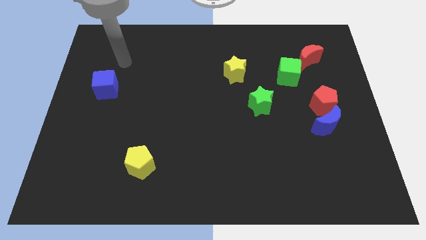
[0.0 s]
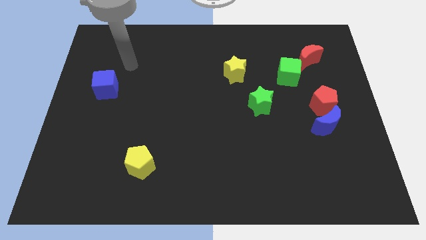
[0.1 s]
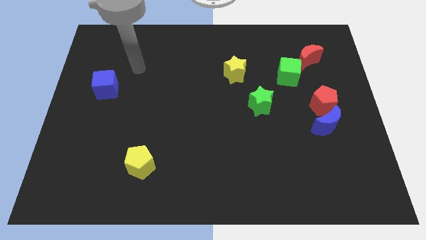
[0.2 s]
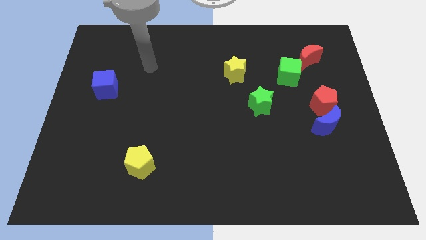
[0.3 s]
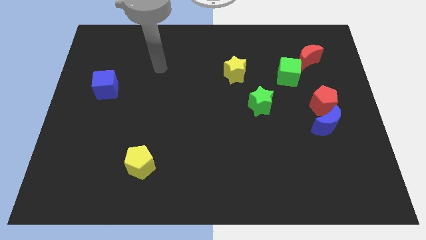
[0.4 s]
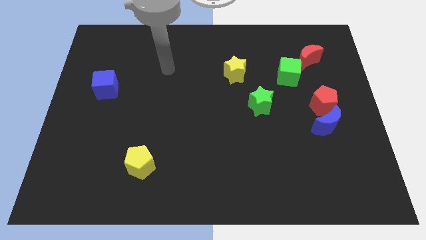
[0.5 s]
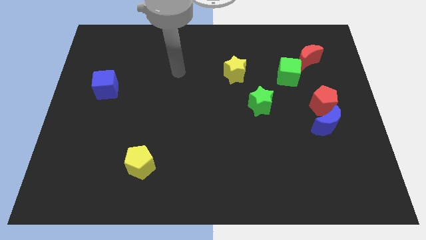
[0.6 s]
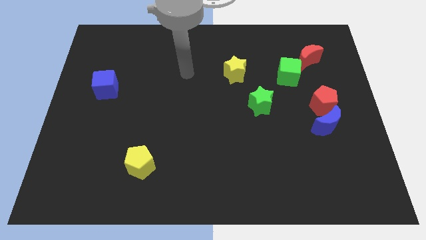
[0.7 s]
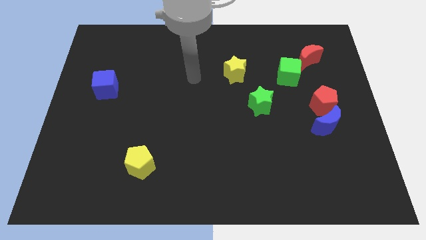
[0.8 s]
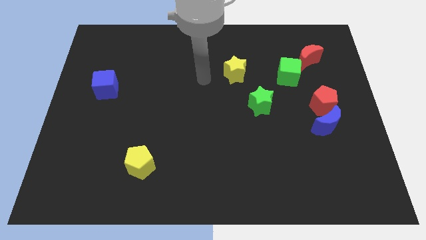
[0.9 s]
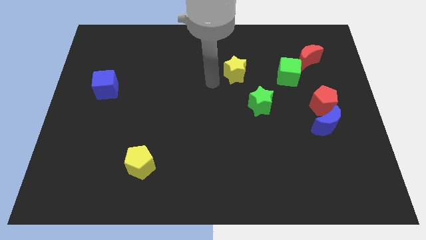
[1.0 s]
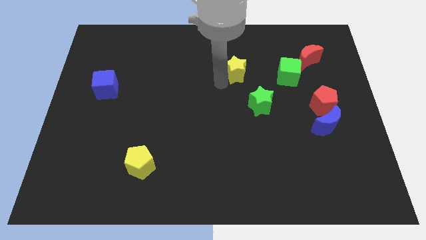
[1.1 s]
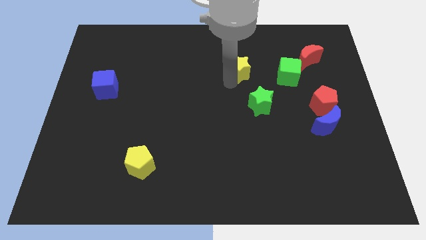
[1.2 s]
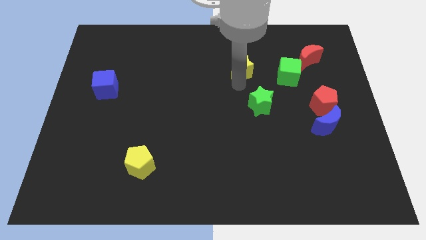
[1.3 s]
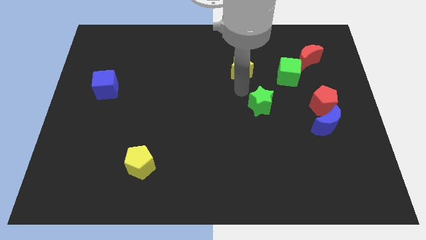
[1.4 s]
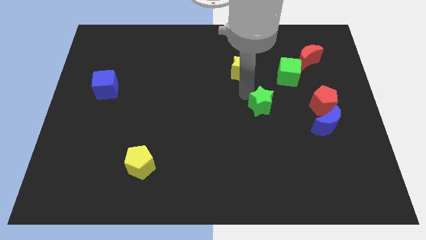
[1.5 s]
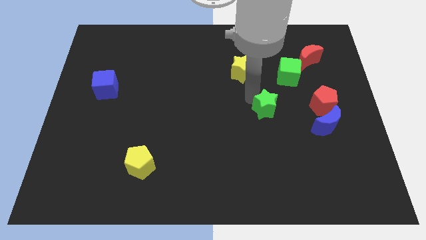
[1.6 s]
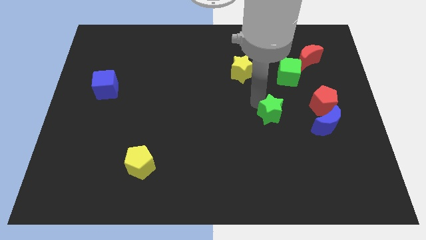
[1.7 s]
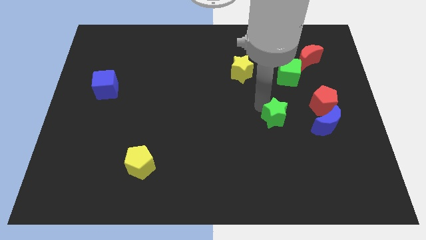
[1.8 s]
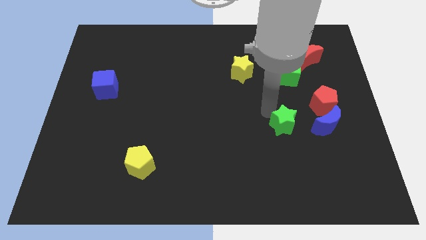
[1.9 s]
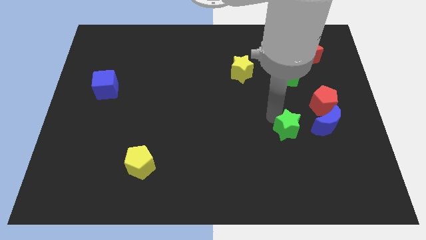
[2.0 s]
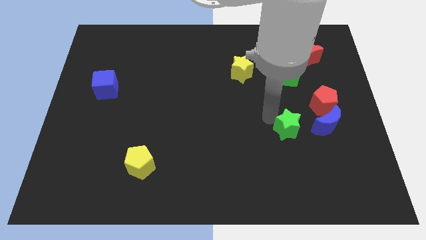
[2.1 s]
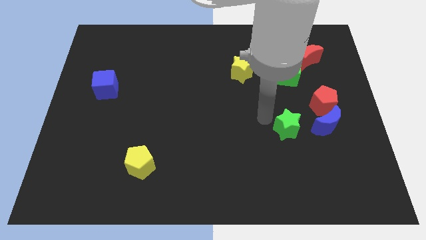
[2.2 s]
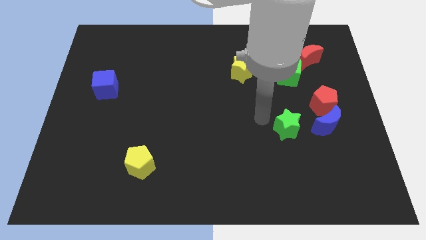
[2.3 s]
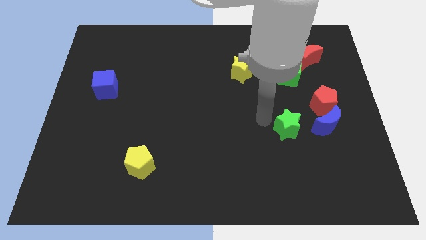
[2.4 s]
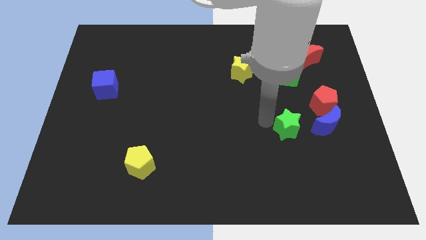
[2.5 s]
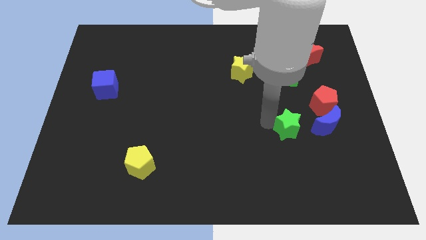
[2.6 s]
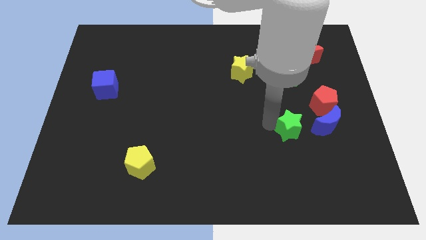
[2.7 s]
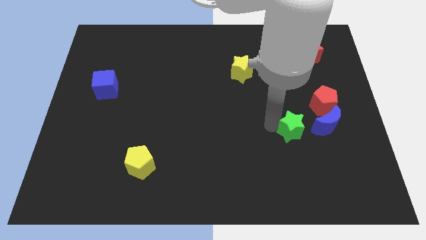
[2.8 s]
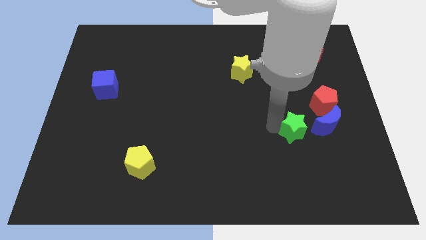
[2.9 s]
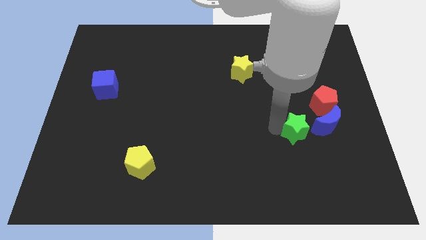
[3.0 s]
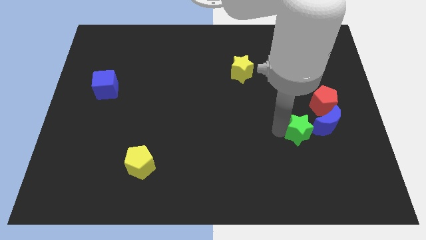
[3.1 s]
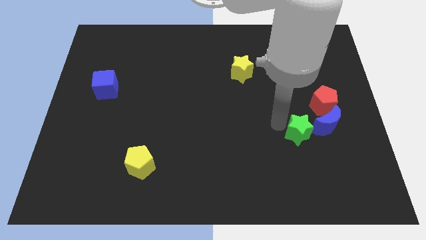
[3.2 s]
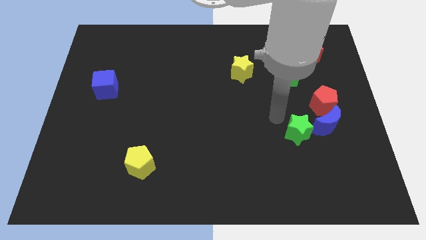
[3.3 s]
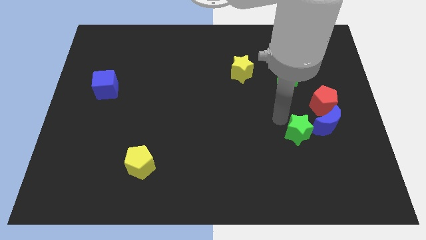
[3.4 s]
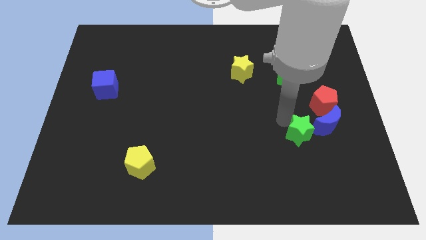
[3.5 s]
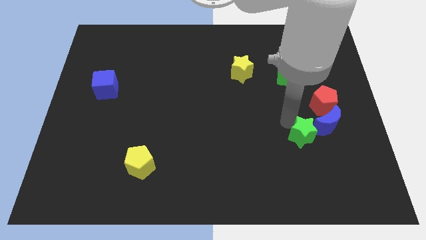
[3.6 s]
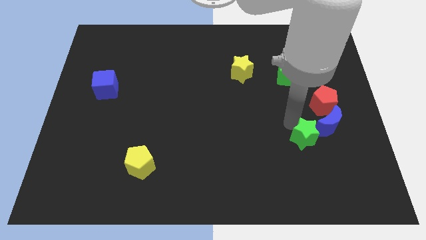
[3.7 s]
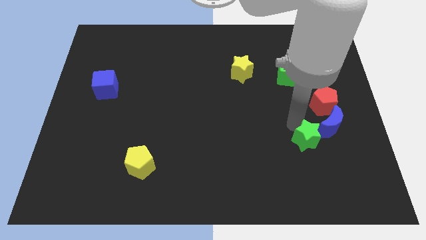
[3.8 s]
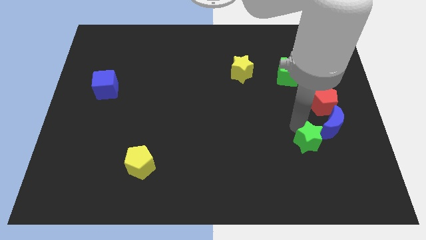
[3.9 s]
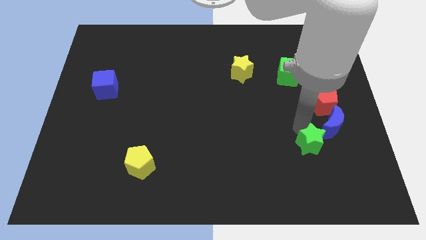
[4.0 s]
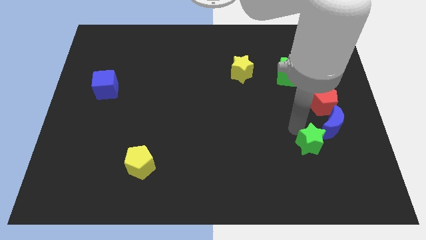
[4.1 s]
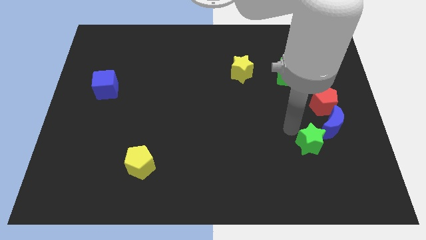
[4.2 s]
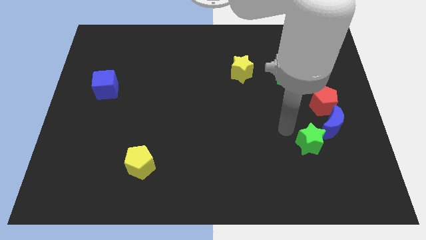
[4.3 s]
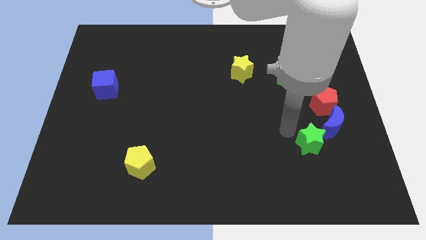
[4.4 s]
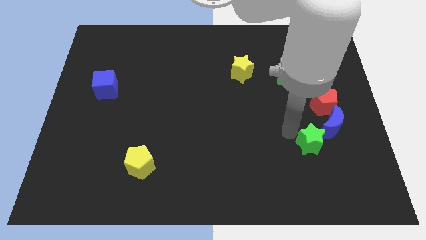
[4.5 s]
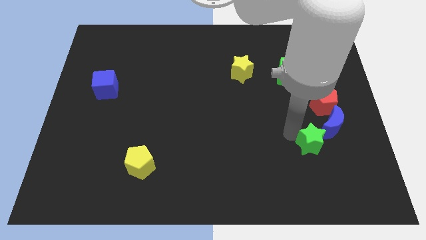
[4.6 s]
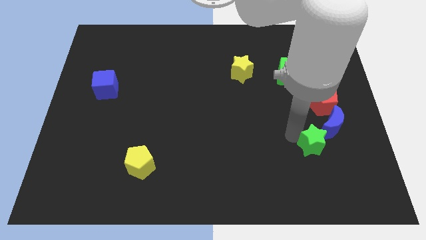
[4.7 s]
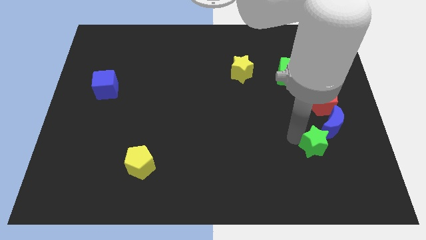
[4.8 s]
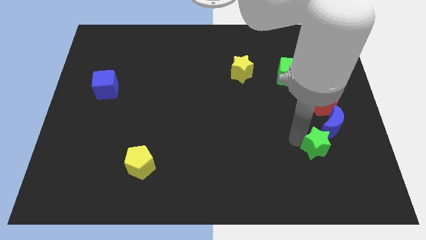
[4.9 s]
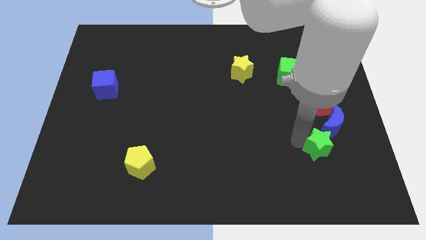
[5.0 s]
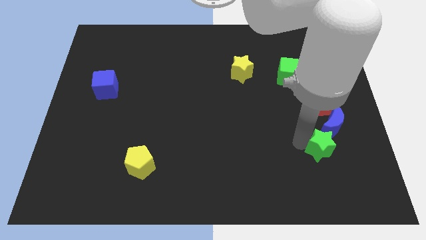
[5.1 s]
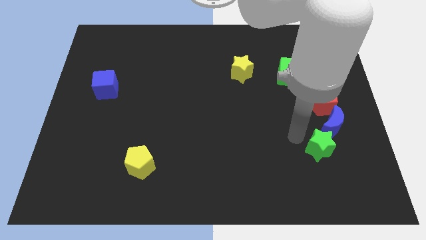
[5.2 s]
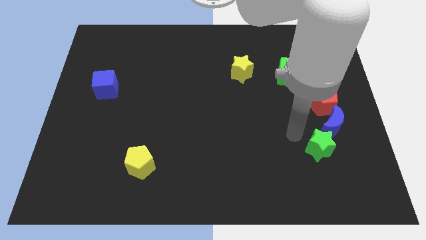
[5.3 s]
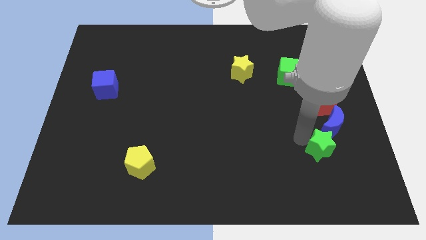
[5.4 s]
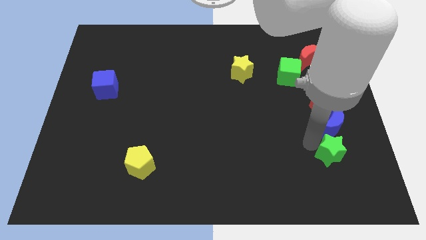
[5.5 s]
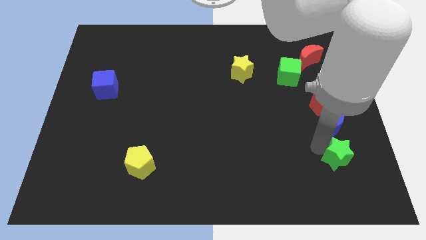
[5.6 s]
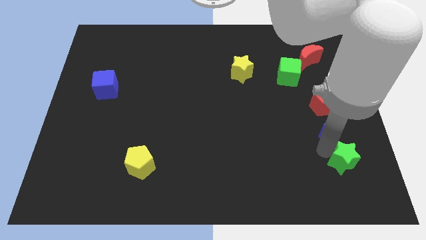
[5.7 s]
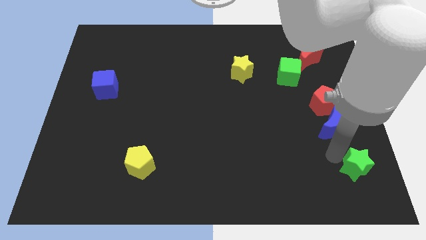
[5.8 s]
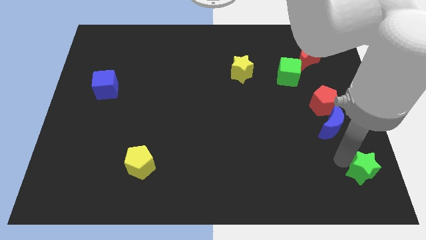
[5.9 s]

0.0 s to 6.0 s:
slide the green star to the lower right corner

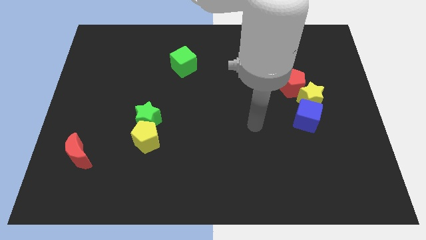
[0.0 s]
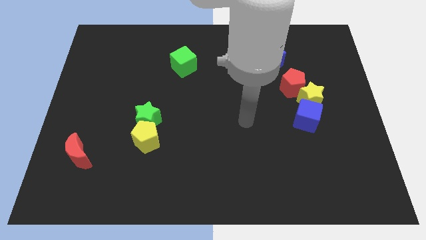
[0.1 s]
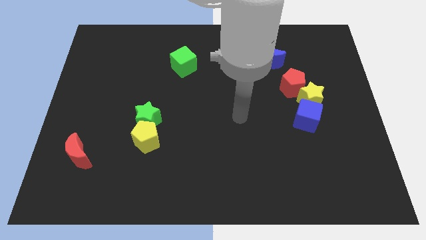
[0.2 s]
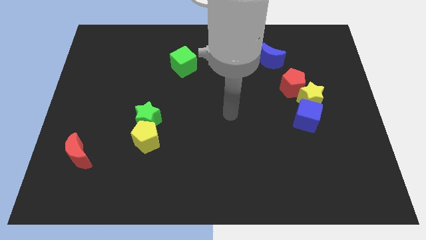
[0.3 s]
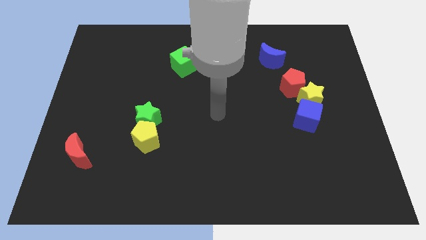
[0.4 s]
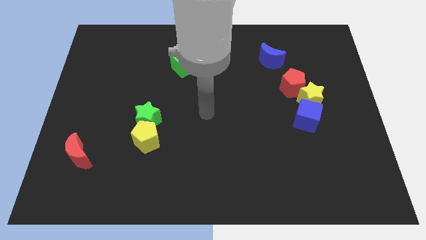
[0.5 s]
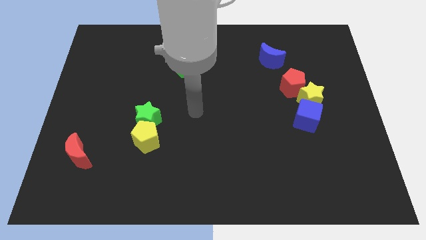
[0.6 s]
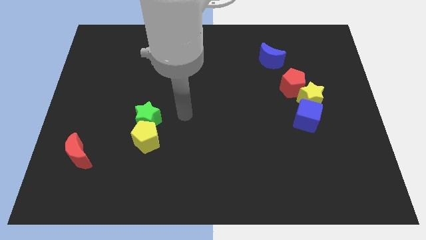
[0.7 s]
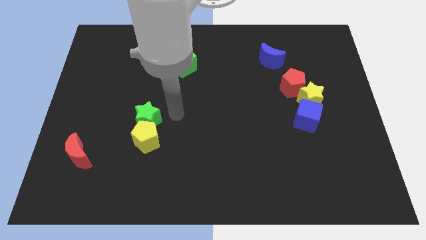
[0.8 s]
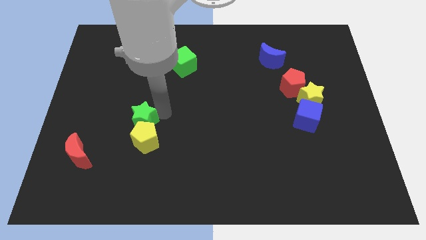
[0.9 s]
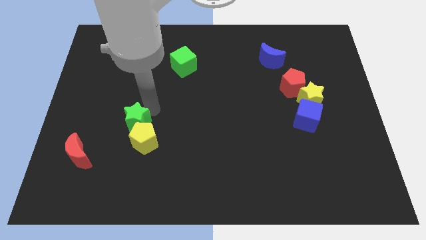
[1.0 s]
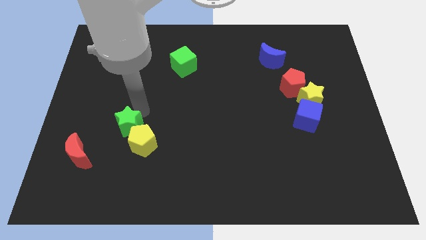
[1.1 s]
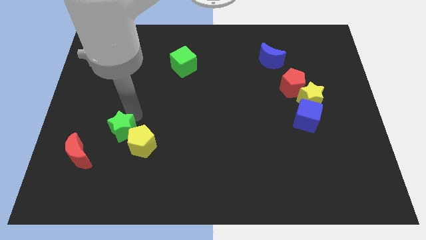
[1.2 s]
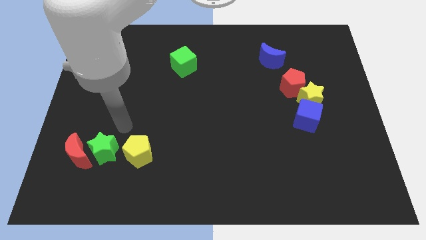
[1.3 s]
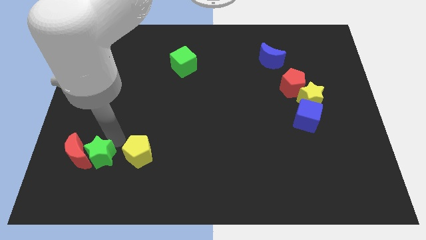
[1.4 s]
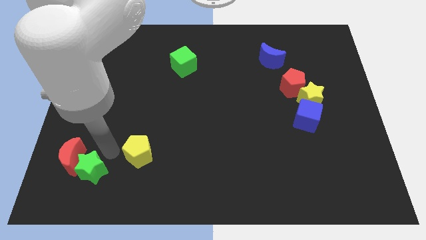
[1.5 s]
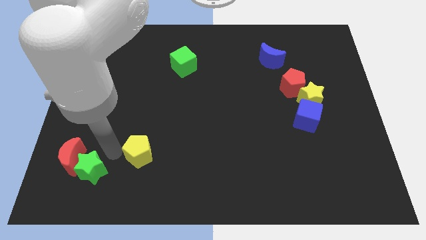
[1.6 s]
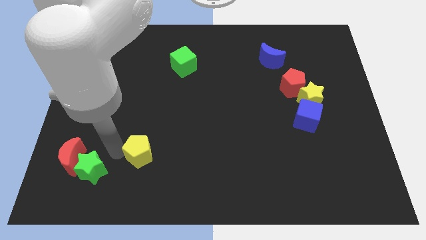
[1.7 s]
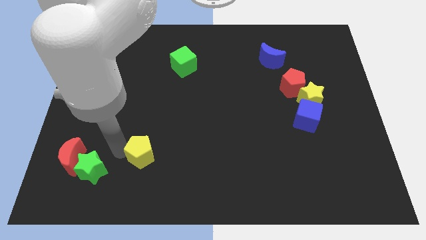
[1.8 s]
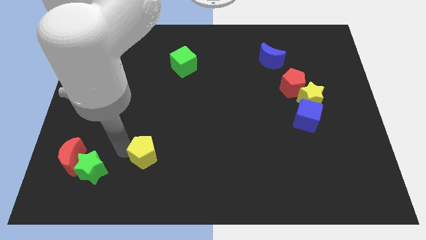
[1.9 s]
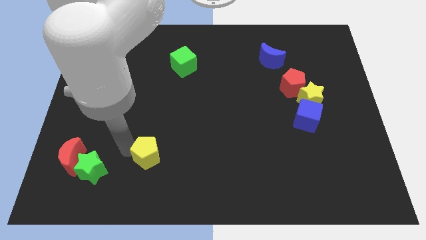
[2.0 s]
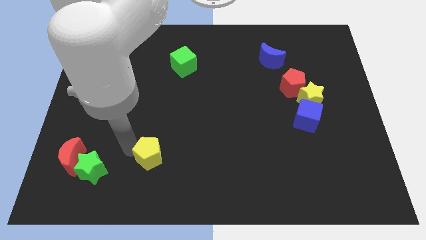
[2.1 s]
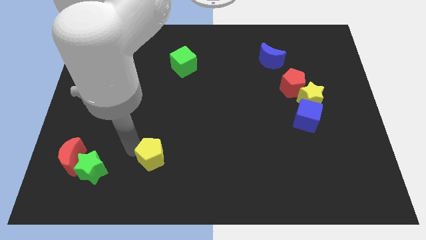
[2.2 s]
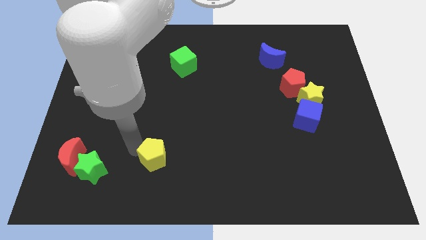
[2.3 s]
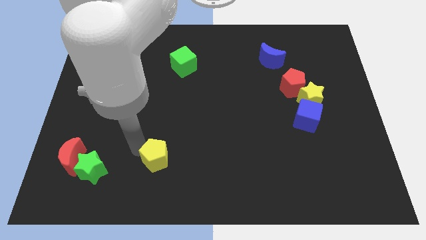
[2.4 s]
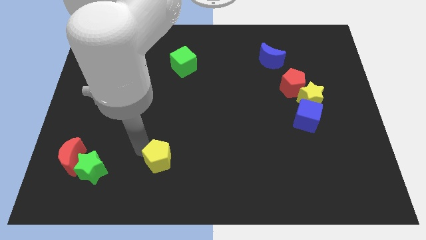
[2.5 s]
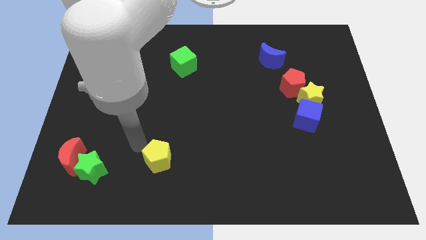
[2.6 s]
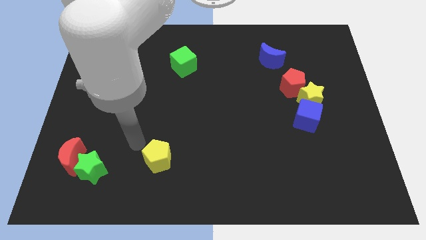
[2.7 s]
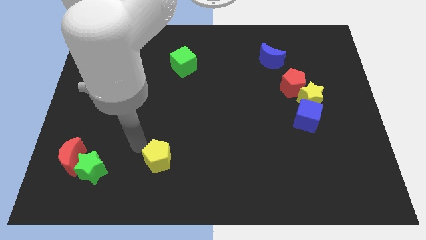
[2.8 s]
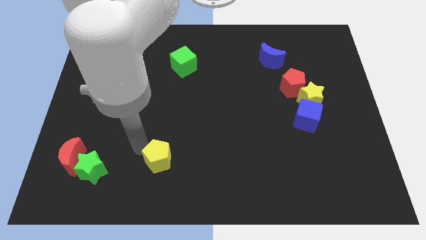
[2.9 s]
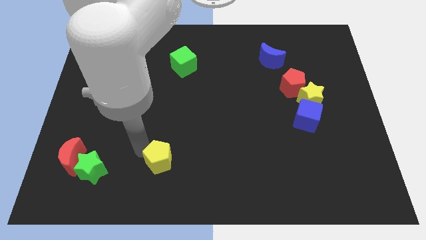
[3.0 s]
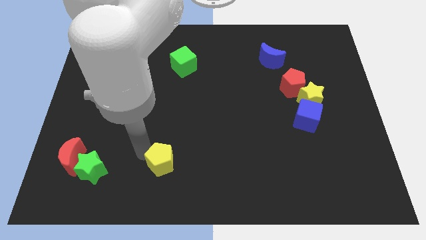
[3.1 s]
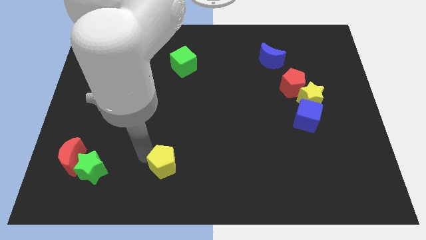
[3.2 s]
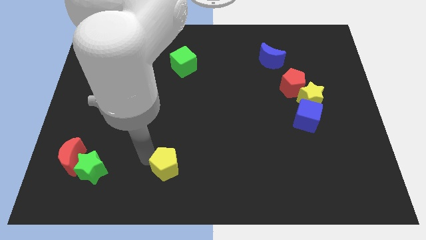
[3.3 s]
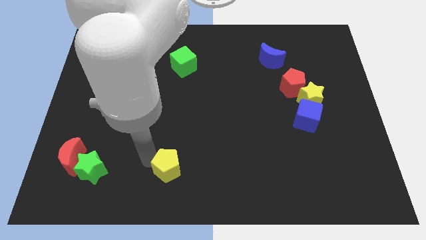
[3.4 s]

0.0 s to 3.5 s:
push the yellow pentagon to the bottom
